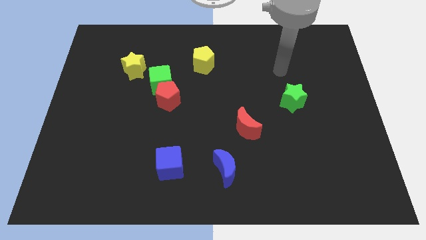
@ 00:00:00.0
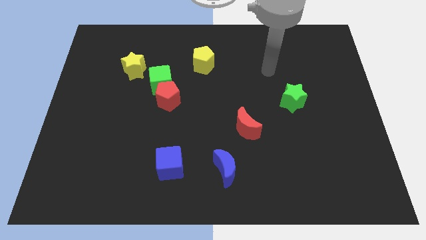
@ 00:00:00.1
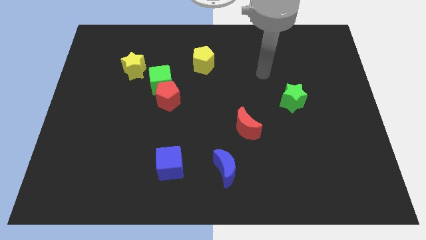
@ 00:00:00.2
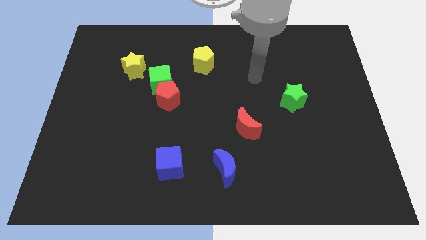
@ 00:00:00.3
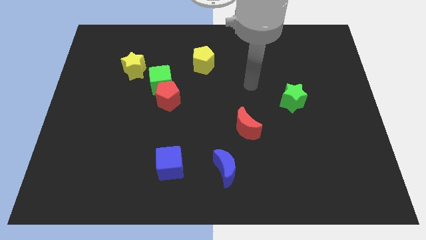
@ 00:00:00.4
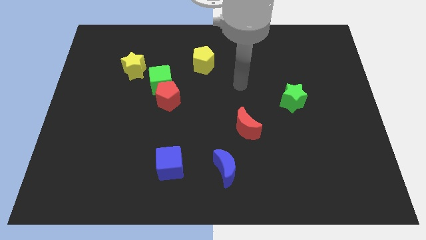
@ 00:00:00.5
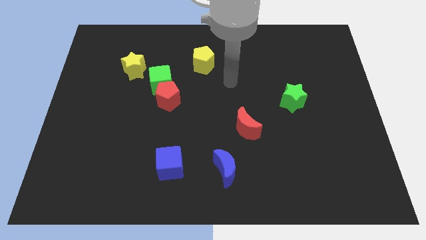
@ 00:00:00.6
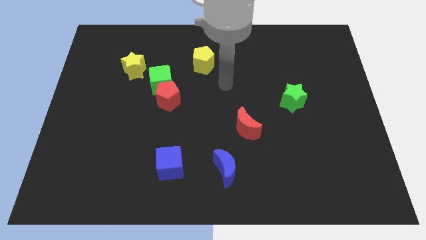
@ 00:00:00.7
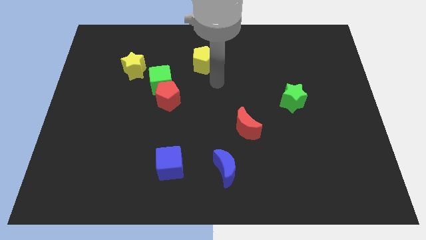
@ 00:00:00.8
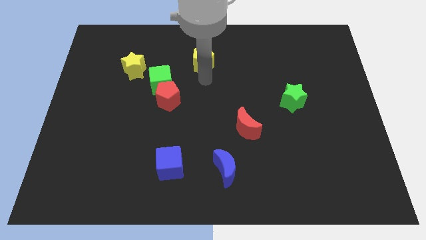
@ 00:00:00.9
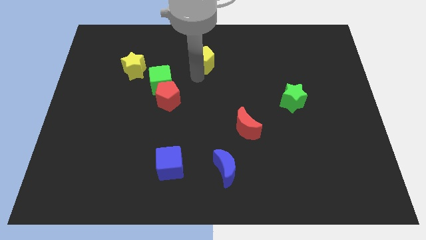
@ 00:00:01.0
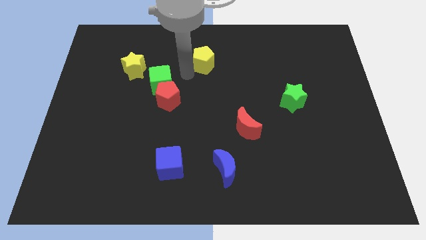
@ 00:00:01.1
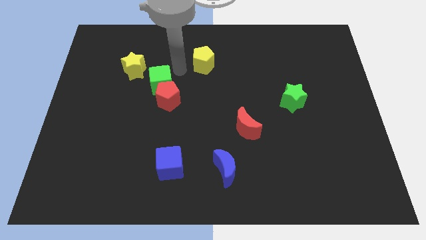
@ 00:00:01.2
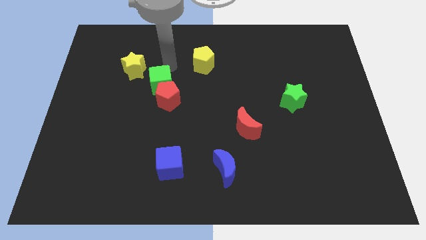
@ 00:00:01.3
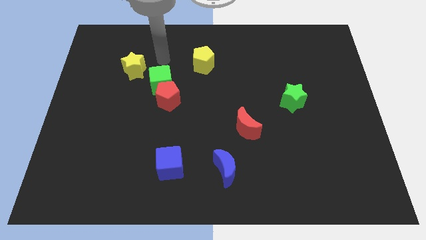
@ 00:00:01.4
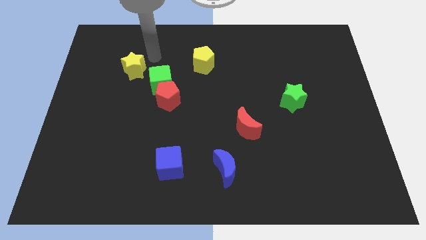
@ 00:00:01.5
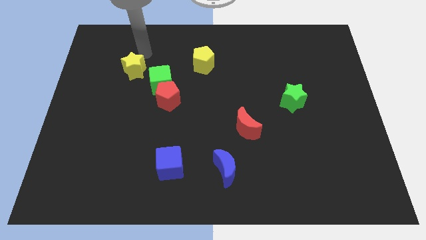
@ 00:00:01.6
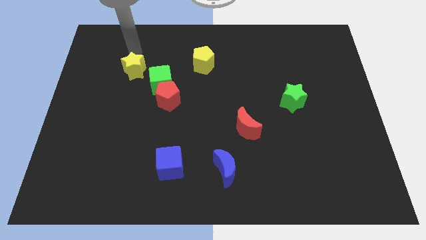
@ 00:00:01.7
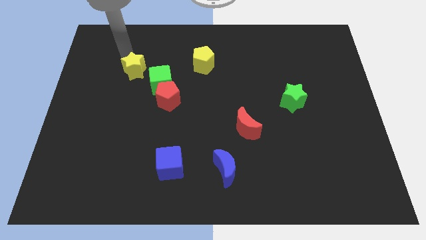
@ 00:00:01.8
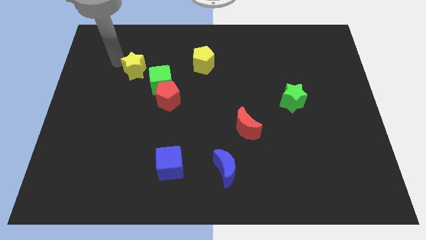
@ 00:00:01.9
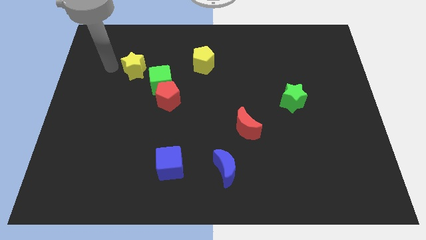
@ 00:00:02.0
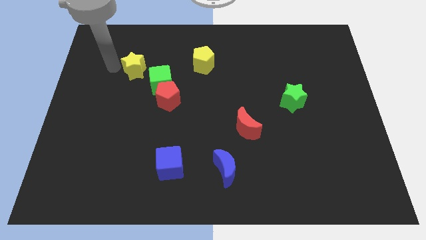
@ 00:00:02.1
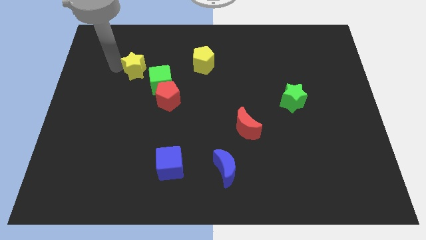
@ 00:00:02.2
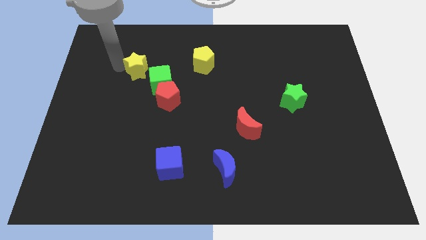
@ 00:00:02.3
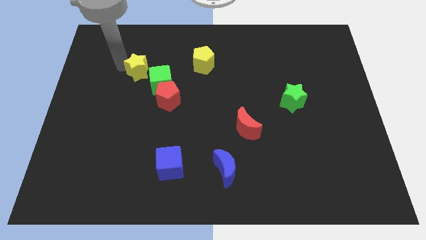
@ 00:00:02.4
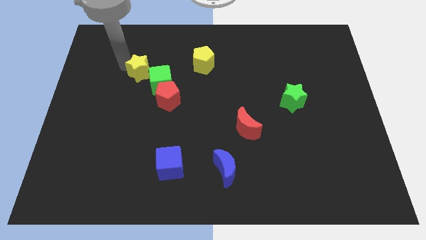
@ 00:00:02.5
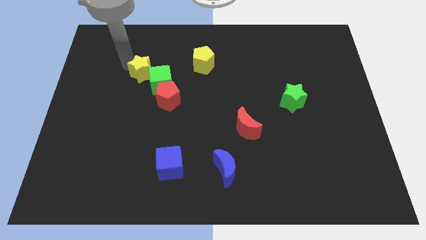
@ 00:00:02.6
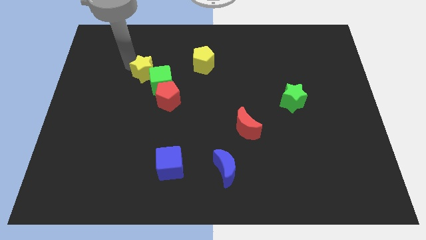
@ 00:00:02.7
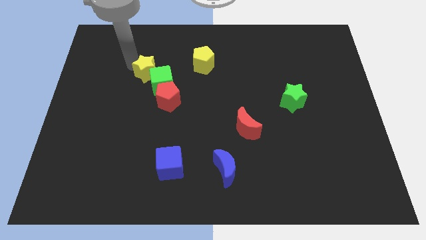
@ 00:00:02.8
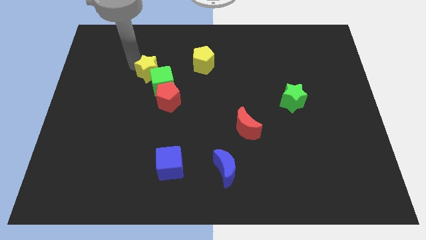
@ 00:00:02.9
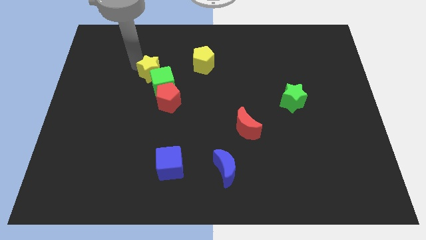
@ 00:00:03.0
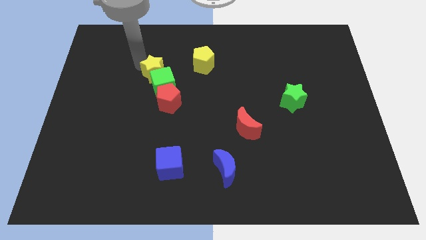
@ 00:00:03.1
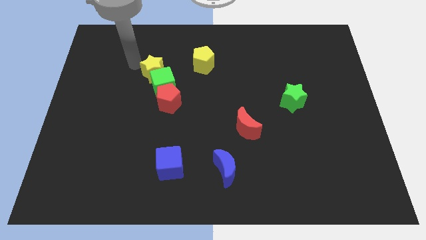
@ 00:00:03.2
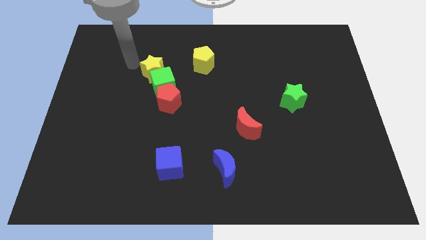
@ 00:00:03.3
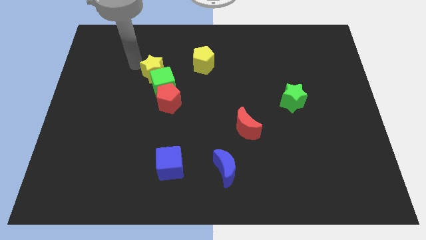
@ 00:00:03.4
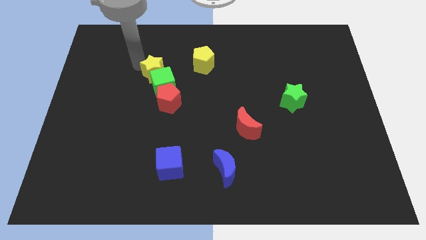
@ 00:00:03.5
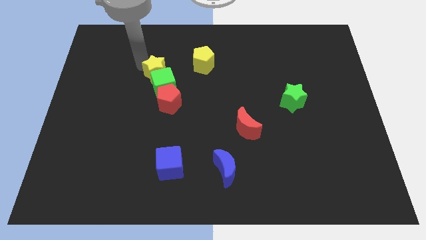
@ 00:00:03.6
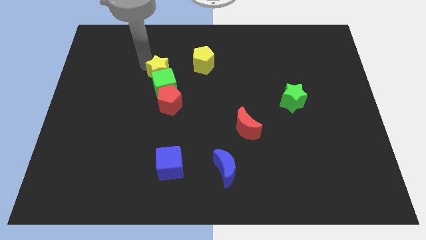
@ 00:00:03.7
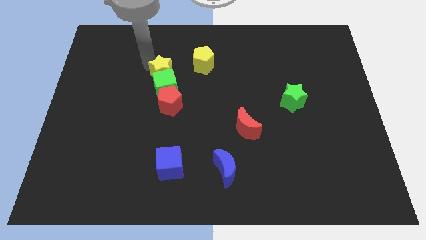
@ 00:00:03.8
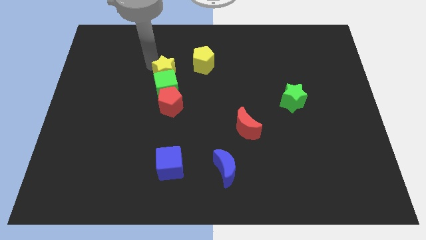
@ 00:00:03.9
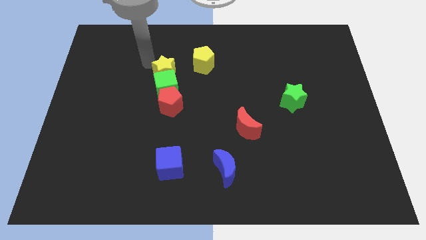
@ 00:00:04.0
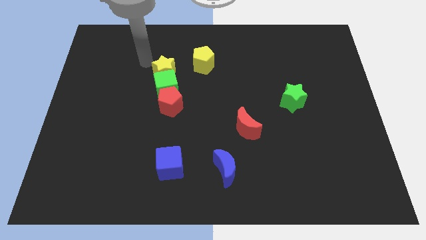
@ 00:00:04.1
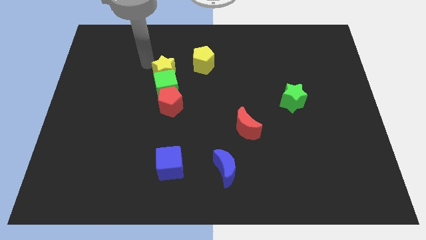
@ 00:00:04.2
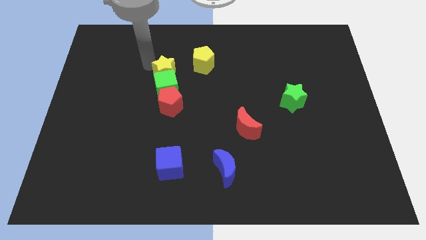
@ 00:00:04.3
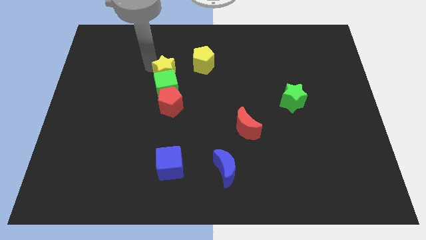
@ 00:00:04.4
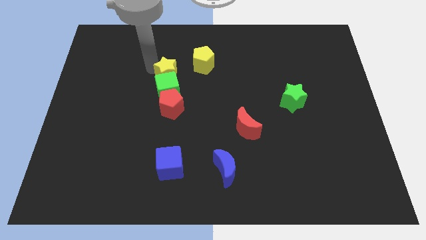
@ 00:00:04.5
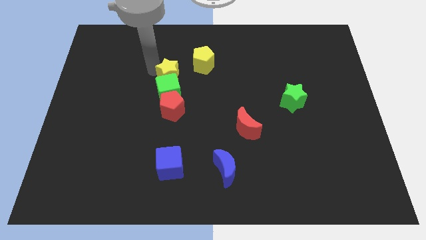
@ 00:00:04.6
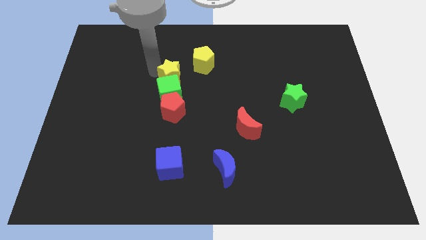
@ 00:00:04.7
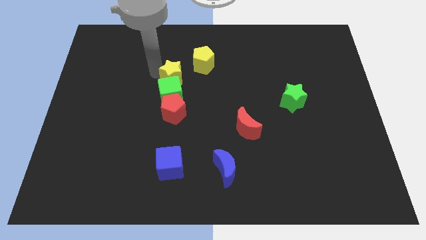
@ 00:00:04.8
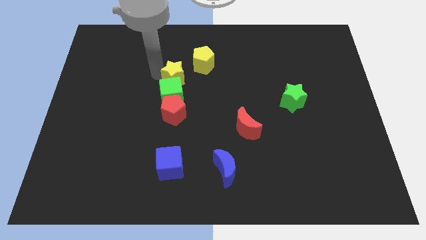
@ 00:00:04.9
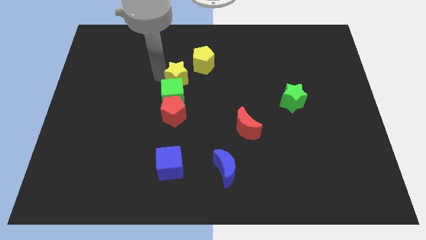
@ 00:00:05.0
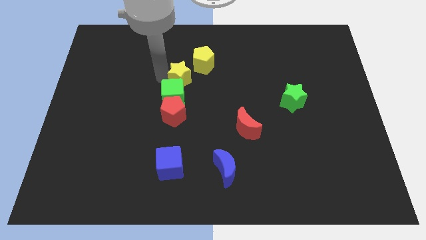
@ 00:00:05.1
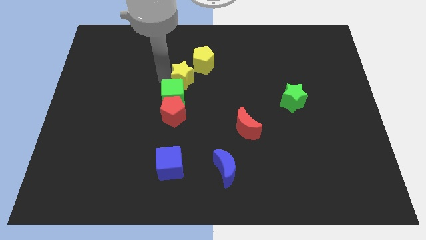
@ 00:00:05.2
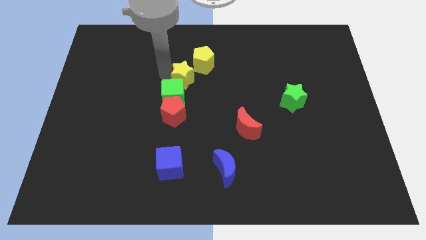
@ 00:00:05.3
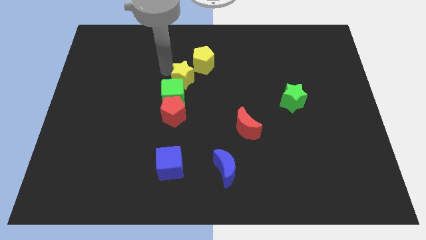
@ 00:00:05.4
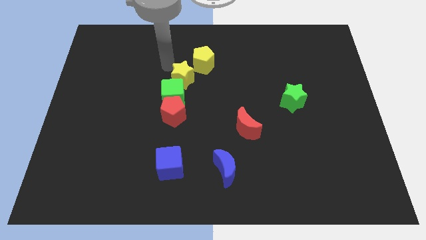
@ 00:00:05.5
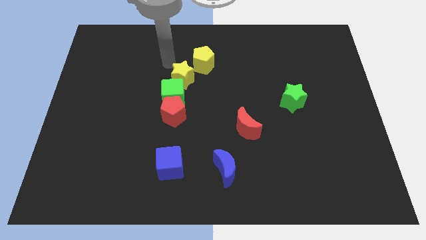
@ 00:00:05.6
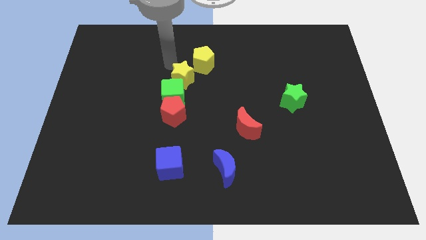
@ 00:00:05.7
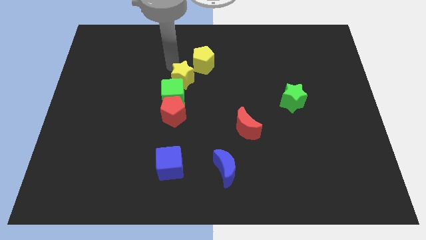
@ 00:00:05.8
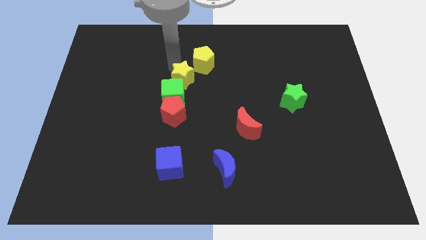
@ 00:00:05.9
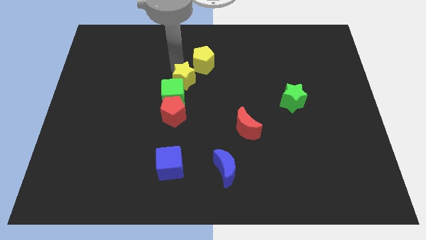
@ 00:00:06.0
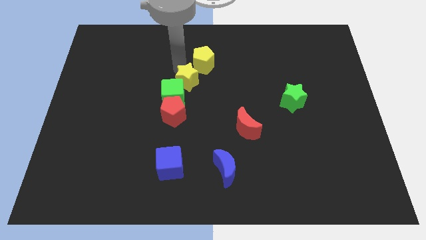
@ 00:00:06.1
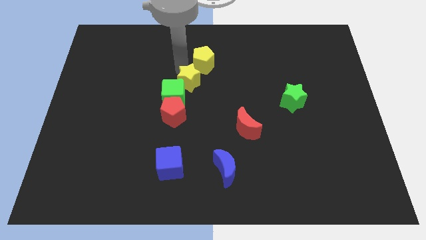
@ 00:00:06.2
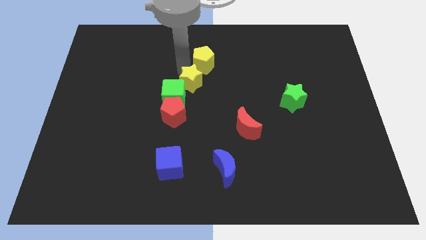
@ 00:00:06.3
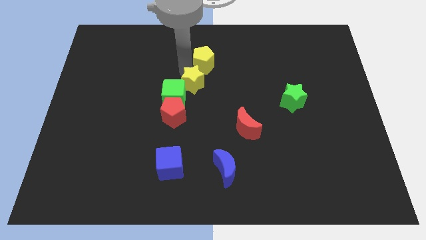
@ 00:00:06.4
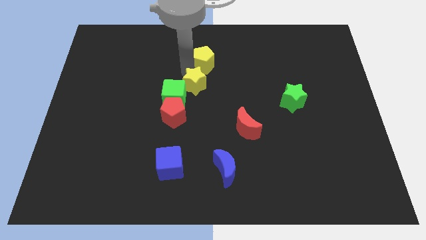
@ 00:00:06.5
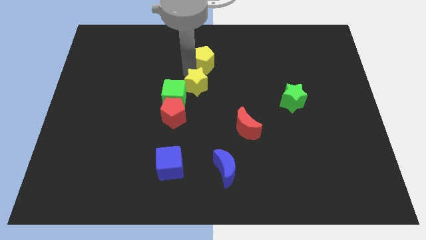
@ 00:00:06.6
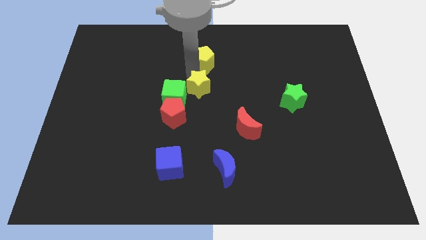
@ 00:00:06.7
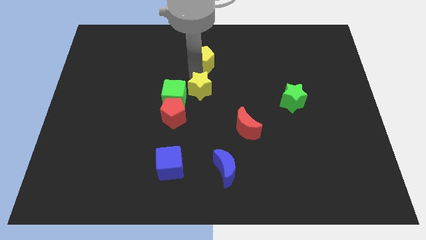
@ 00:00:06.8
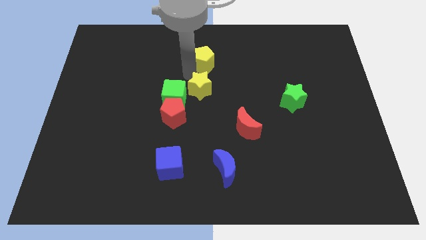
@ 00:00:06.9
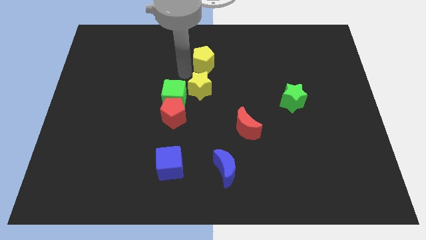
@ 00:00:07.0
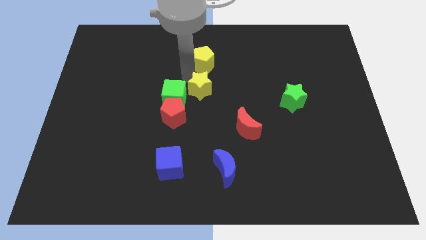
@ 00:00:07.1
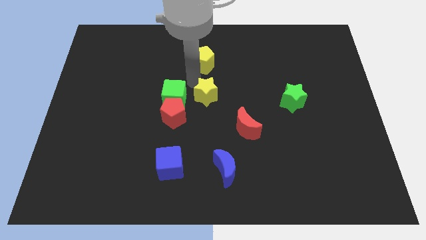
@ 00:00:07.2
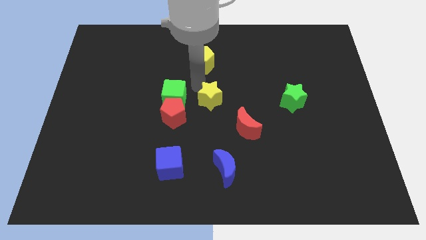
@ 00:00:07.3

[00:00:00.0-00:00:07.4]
put the yellow star to the top left of the red moon
